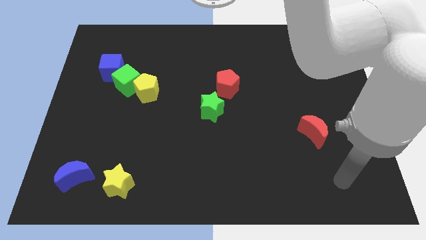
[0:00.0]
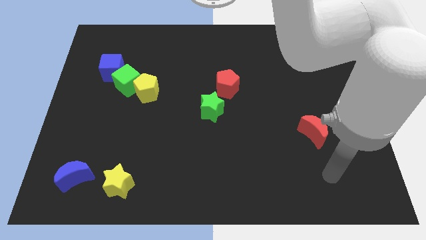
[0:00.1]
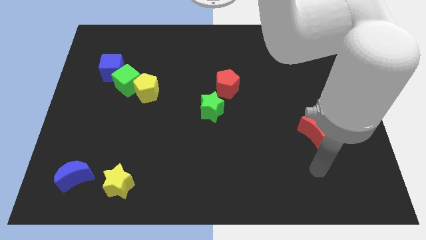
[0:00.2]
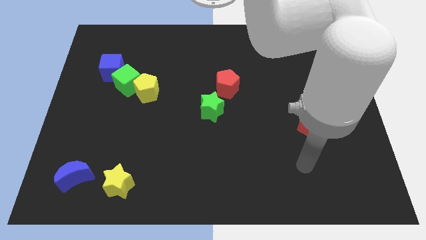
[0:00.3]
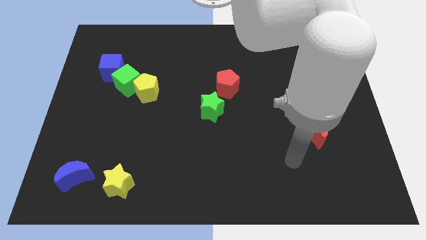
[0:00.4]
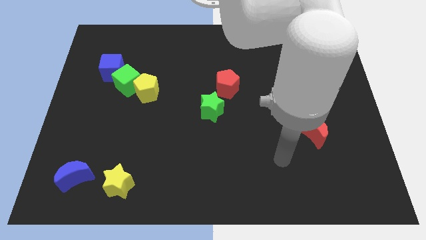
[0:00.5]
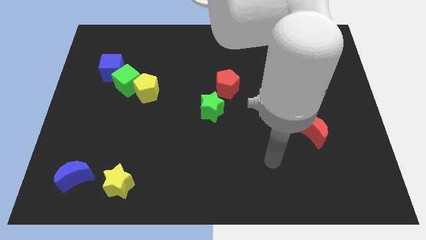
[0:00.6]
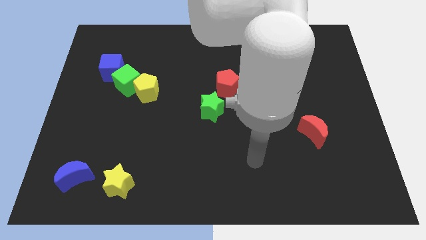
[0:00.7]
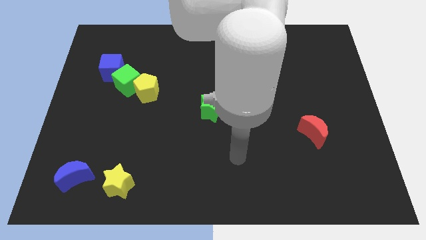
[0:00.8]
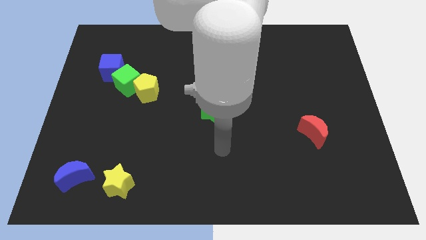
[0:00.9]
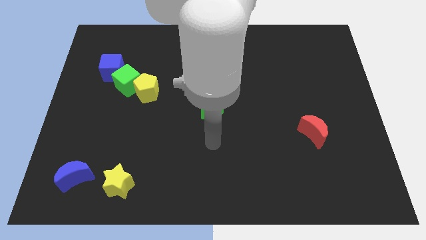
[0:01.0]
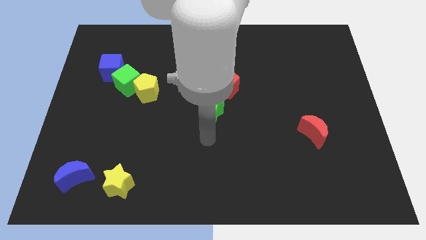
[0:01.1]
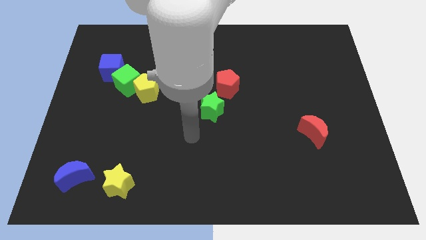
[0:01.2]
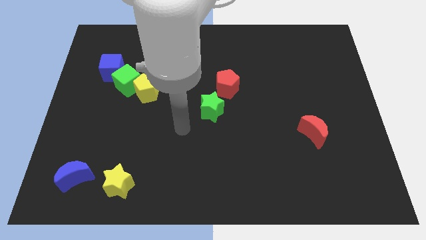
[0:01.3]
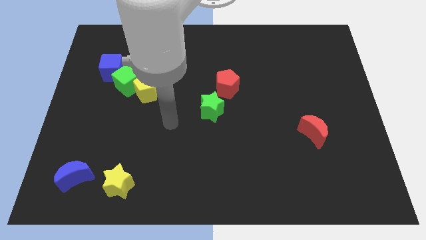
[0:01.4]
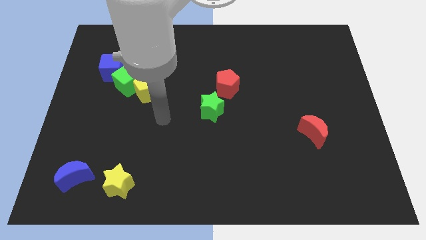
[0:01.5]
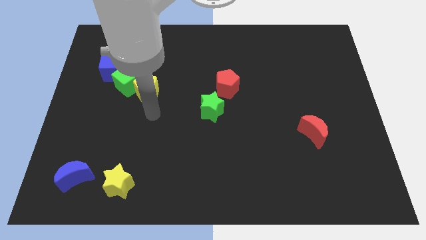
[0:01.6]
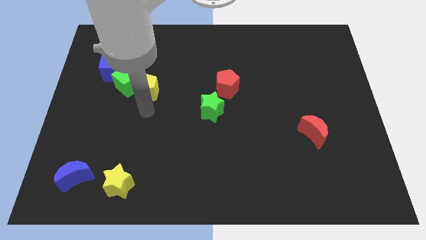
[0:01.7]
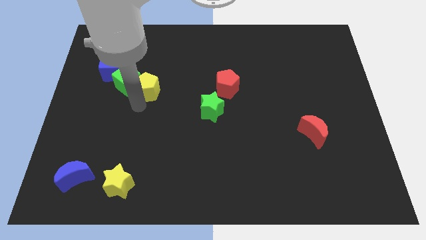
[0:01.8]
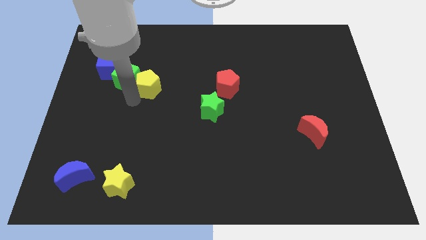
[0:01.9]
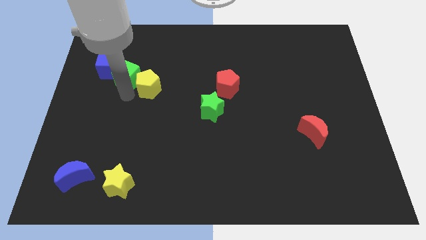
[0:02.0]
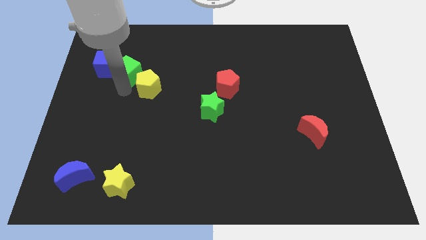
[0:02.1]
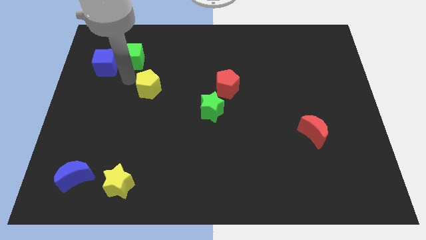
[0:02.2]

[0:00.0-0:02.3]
pull the yellow pentagon apart from the green cube

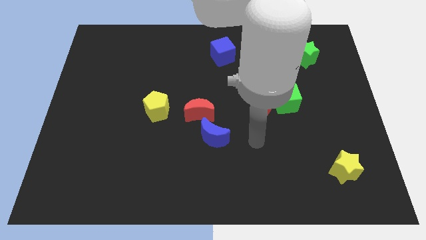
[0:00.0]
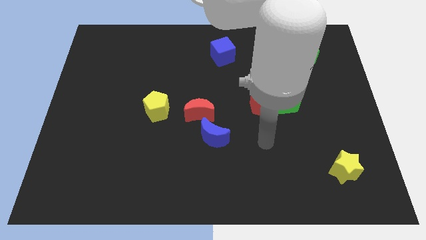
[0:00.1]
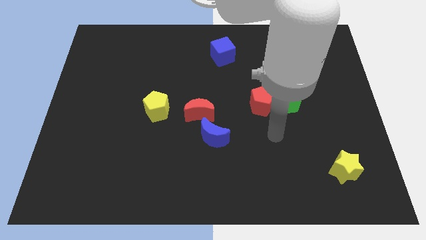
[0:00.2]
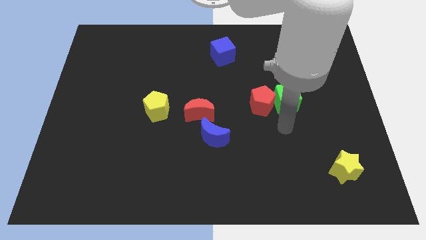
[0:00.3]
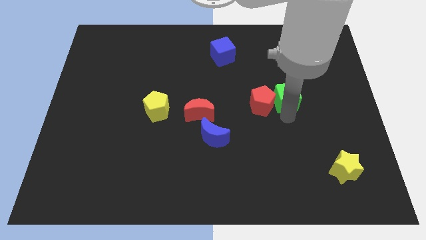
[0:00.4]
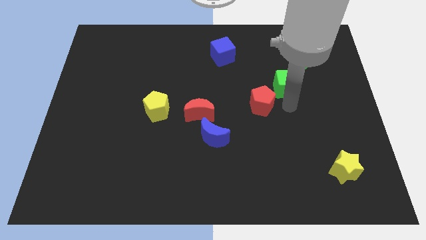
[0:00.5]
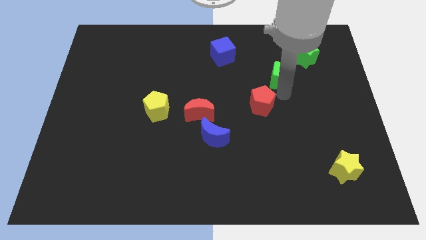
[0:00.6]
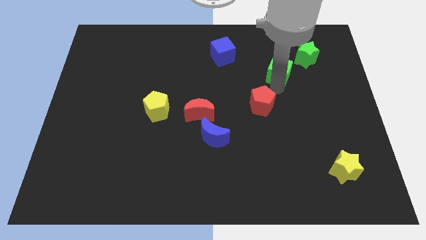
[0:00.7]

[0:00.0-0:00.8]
pull the red pentagon apart from the green cube

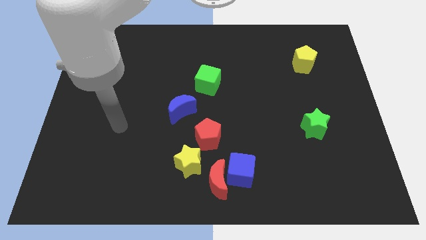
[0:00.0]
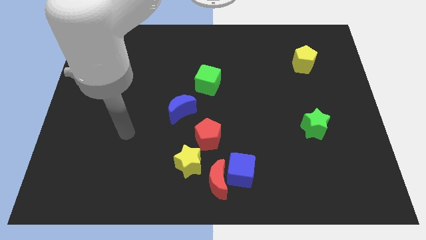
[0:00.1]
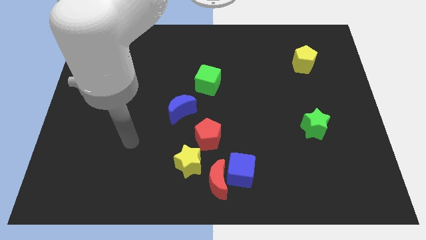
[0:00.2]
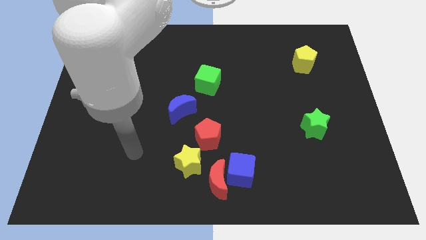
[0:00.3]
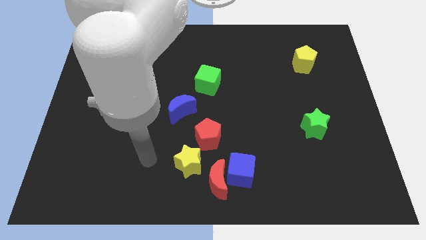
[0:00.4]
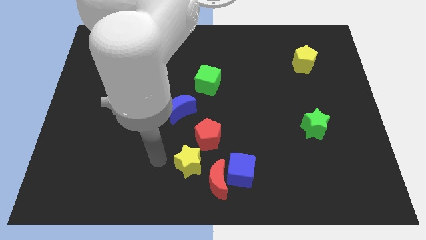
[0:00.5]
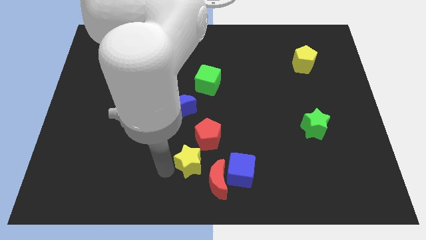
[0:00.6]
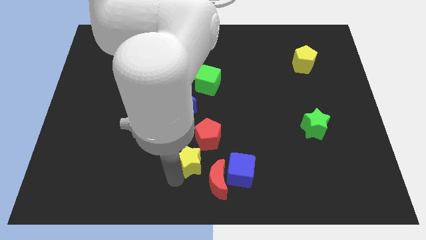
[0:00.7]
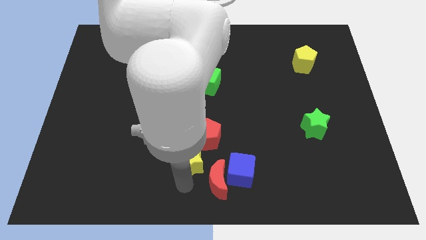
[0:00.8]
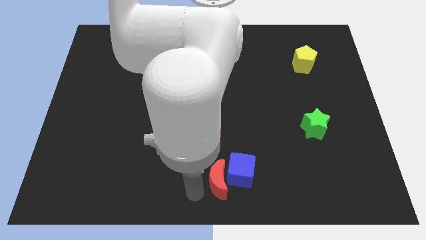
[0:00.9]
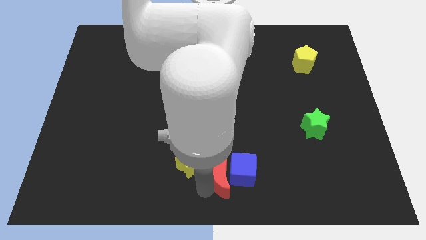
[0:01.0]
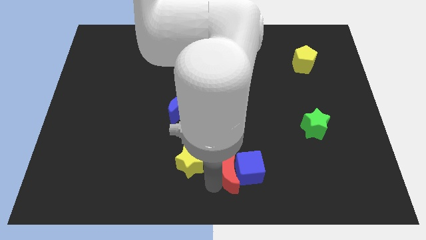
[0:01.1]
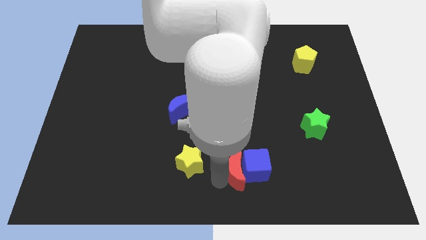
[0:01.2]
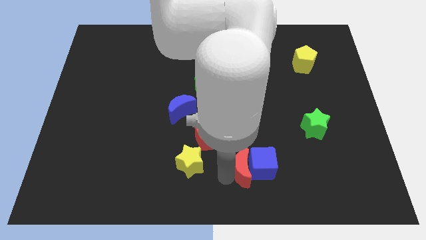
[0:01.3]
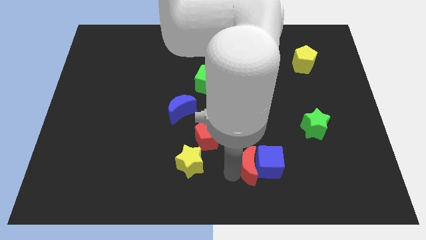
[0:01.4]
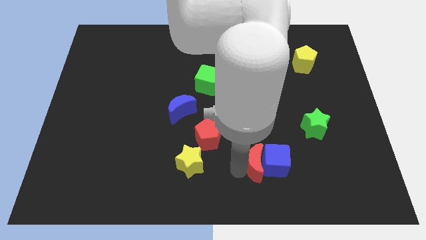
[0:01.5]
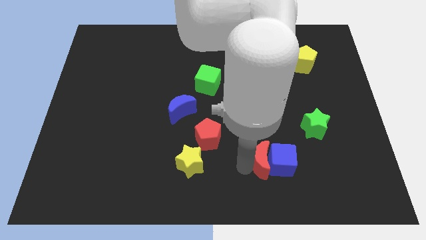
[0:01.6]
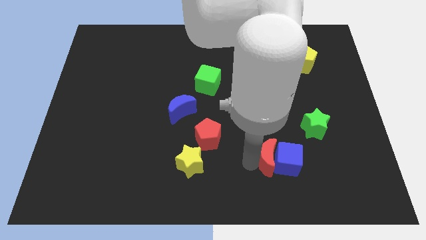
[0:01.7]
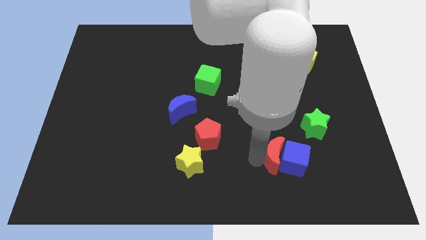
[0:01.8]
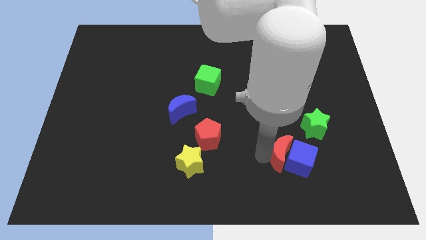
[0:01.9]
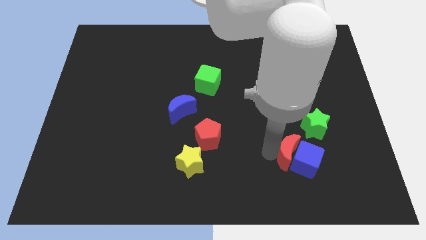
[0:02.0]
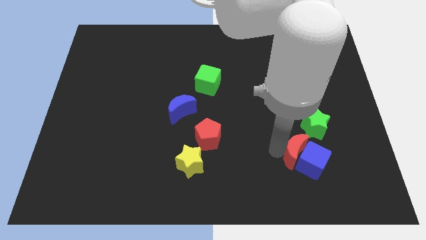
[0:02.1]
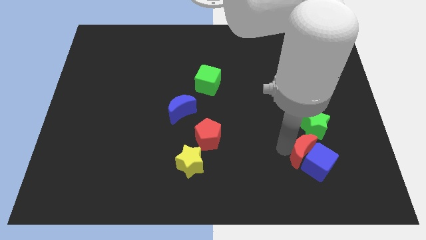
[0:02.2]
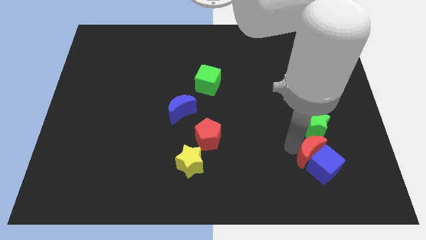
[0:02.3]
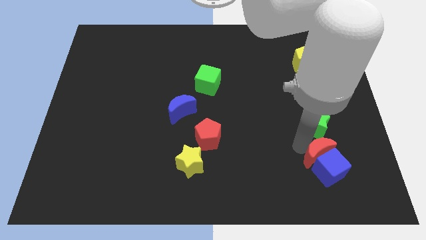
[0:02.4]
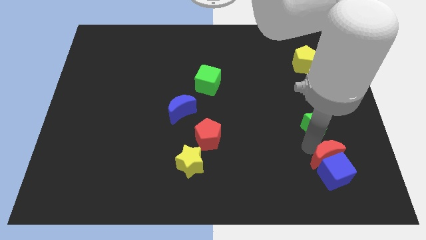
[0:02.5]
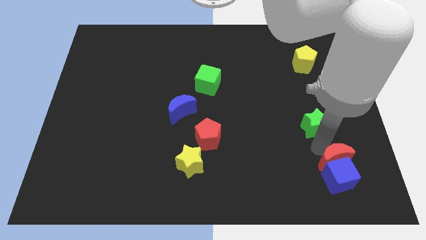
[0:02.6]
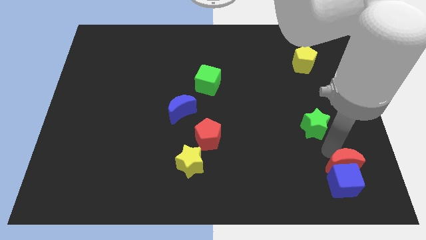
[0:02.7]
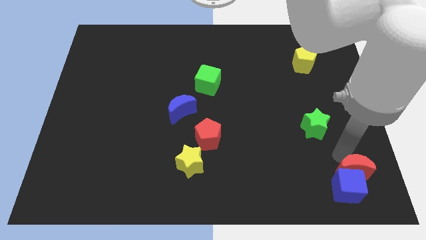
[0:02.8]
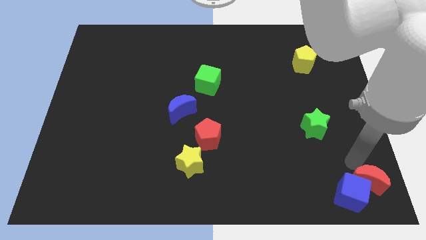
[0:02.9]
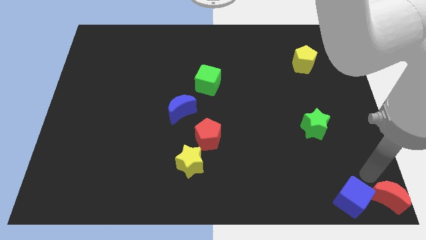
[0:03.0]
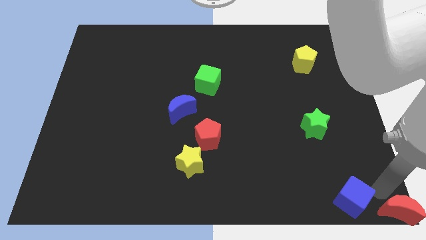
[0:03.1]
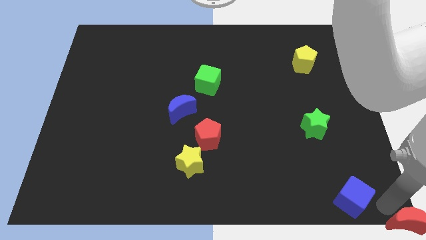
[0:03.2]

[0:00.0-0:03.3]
move the blue cube away from the red moon

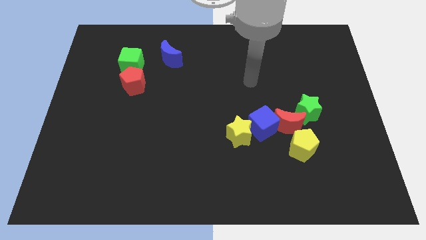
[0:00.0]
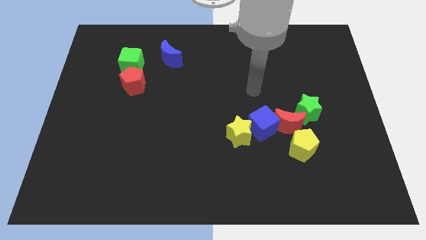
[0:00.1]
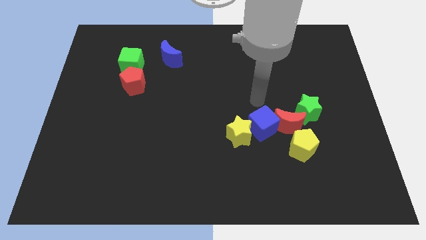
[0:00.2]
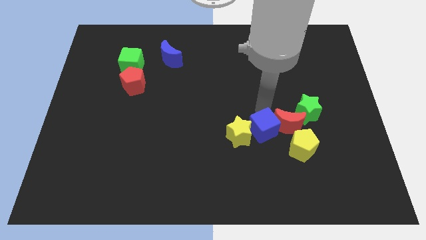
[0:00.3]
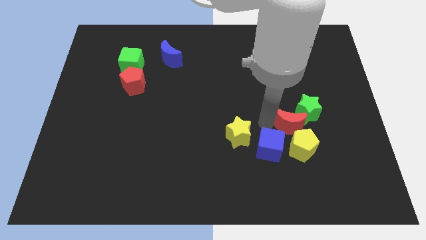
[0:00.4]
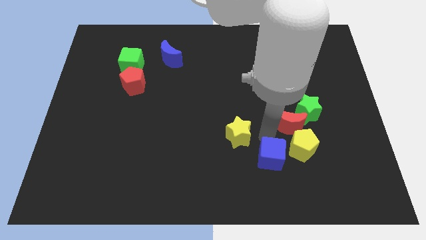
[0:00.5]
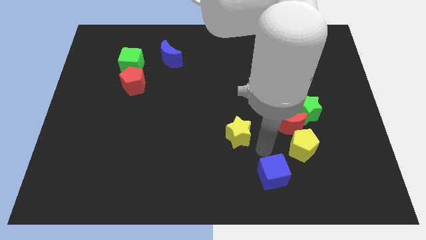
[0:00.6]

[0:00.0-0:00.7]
pull the yellow star apart from the blue cube

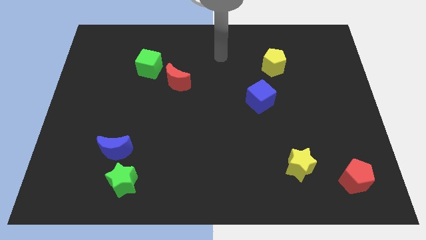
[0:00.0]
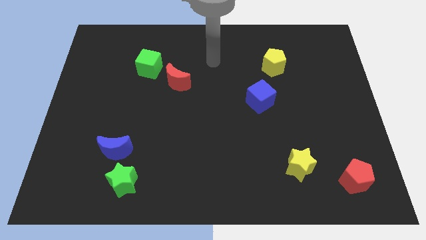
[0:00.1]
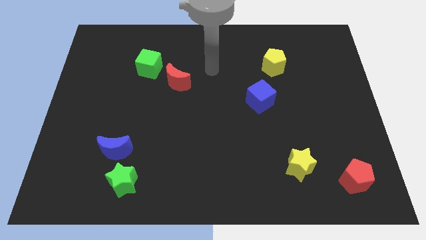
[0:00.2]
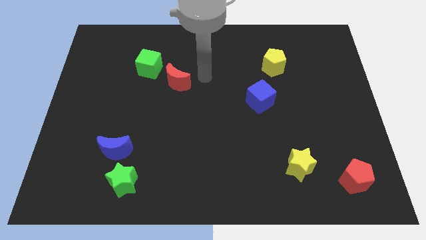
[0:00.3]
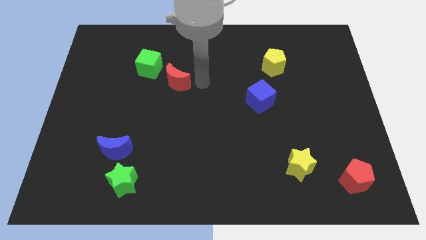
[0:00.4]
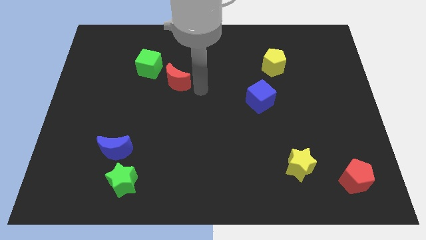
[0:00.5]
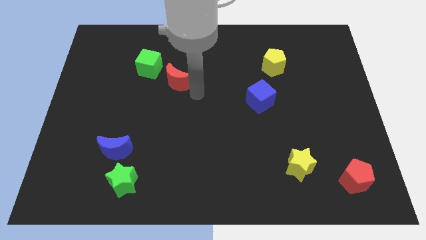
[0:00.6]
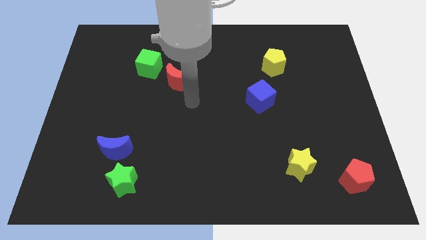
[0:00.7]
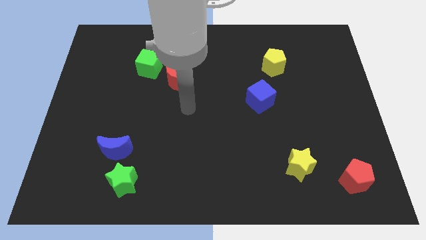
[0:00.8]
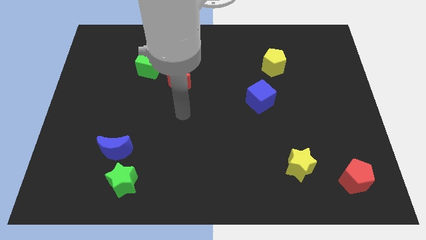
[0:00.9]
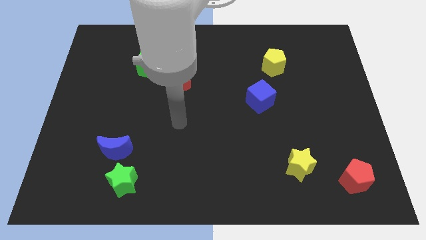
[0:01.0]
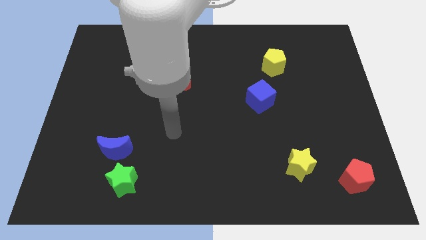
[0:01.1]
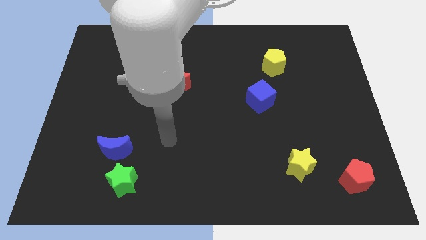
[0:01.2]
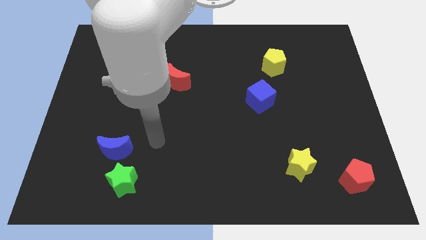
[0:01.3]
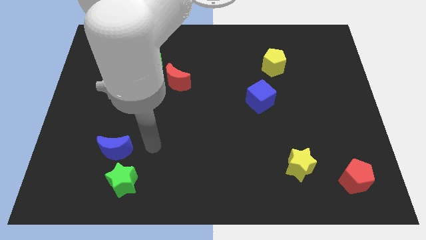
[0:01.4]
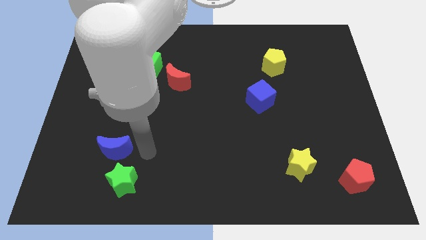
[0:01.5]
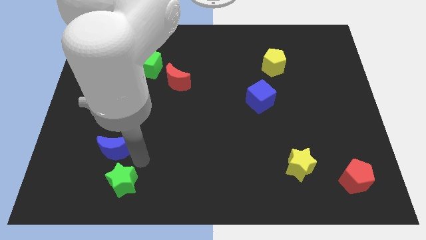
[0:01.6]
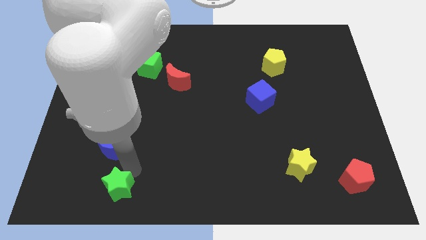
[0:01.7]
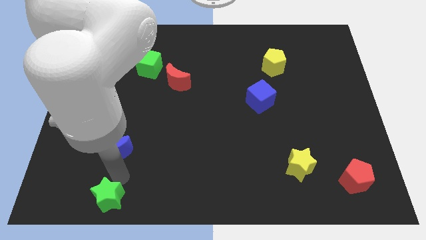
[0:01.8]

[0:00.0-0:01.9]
separate the blue moon from the green star

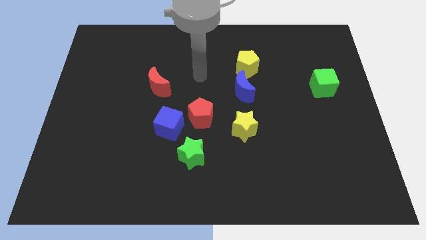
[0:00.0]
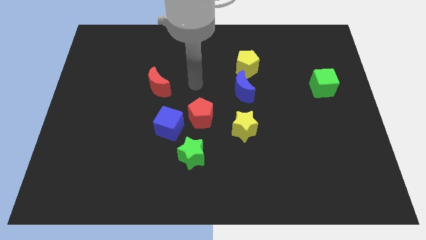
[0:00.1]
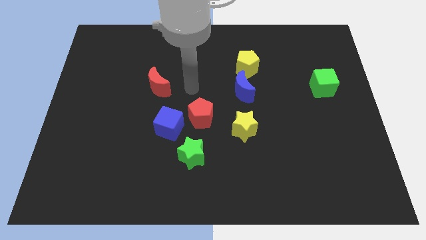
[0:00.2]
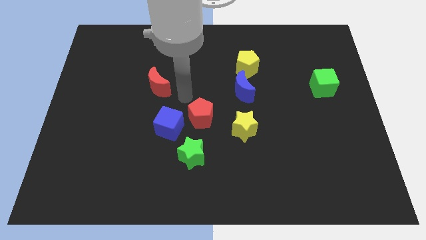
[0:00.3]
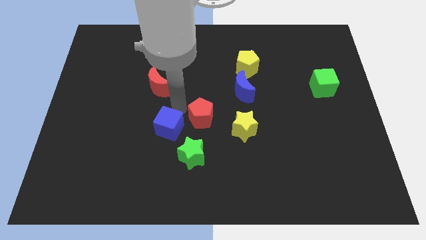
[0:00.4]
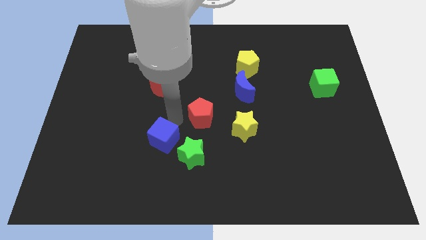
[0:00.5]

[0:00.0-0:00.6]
pull the red pentagon apart from the blue cube
